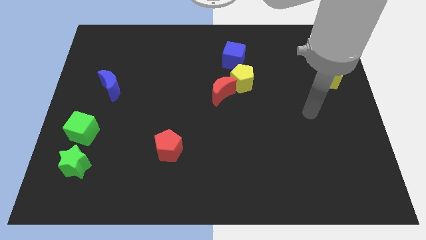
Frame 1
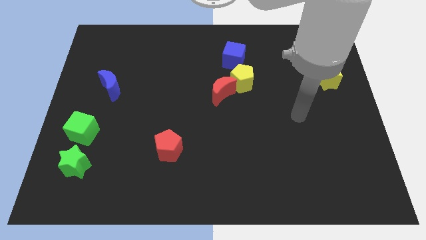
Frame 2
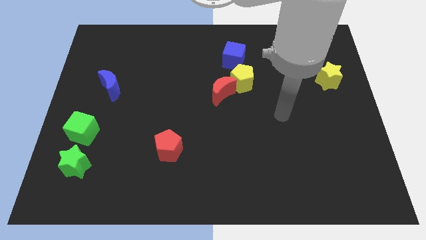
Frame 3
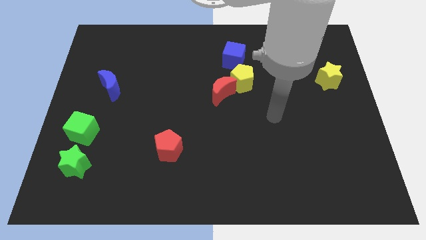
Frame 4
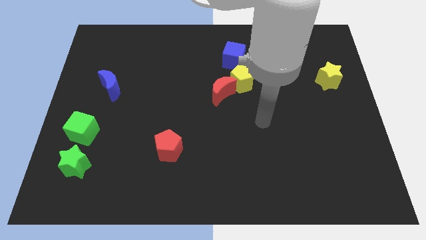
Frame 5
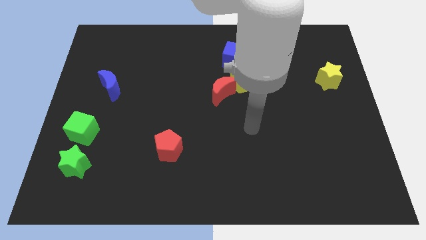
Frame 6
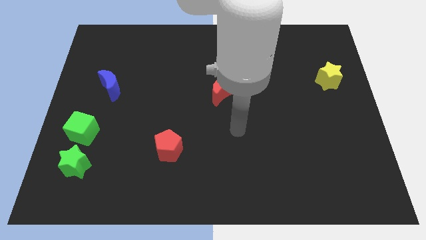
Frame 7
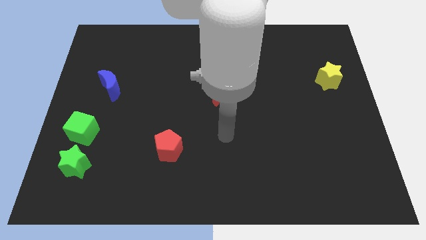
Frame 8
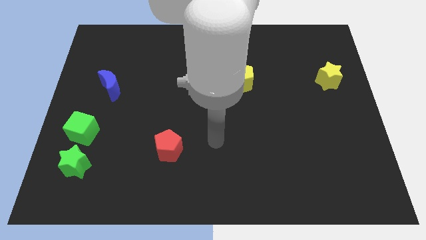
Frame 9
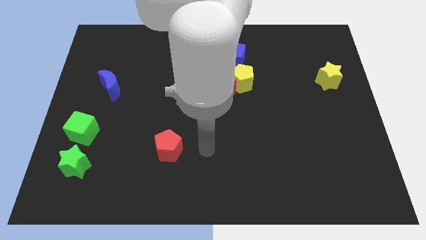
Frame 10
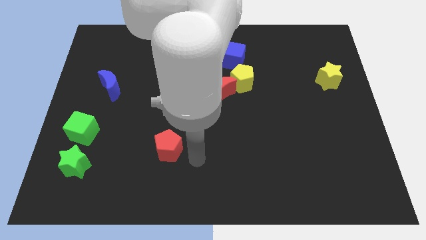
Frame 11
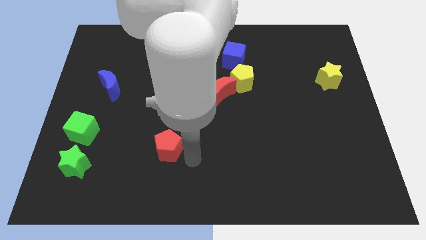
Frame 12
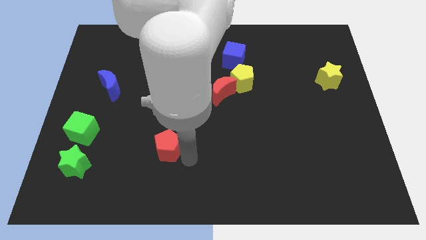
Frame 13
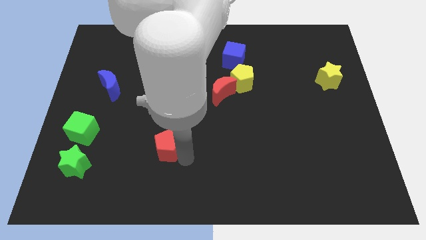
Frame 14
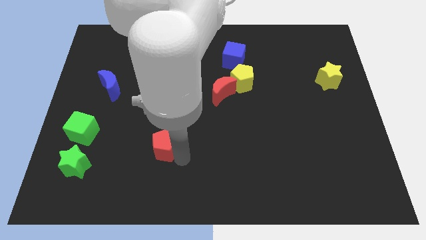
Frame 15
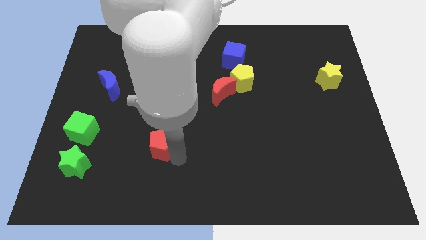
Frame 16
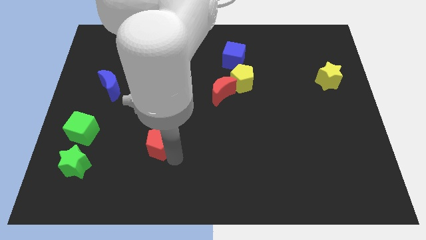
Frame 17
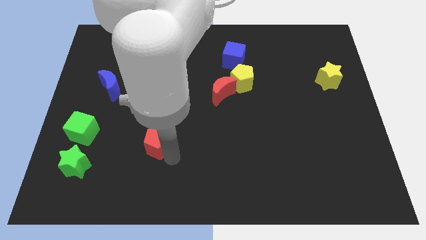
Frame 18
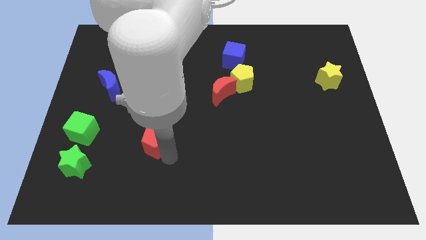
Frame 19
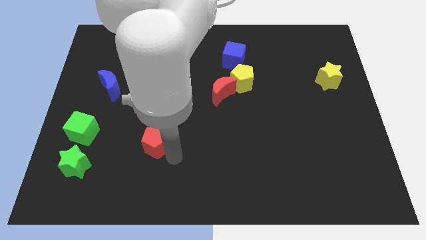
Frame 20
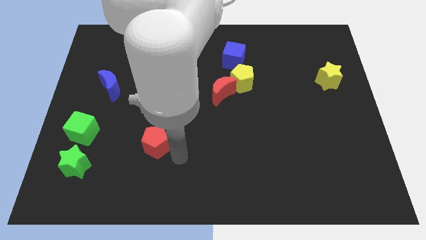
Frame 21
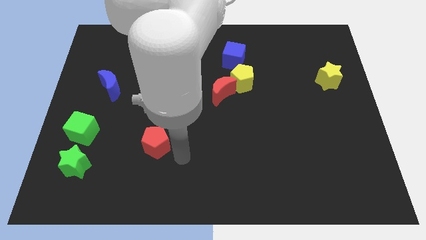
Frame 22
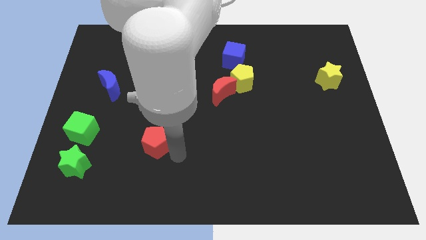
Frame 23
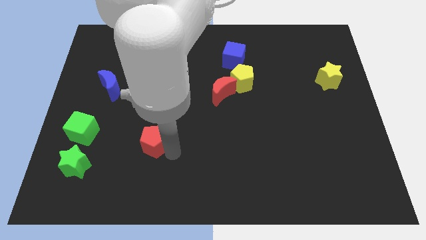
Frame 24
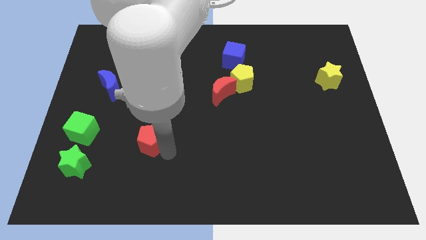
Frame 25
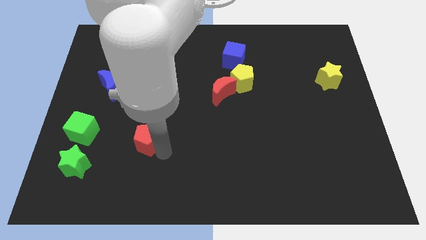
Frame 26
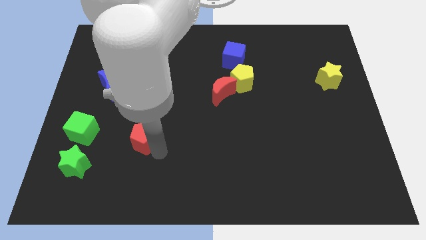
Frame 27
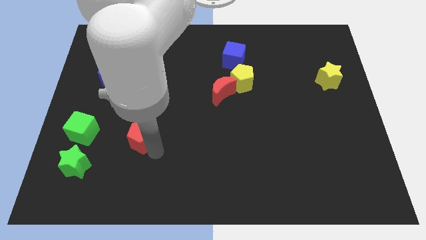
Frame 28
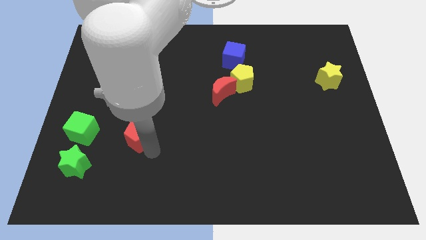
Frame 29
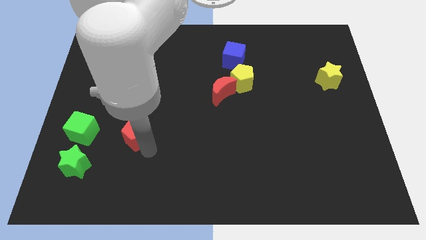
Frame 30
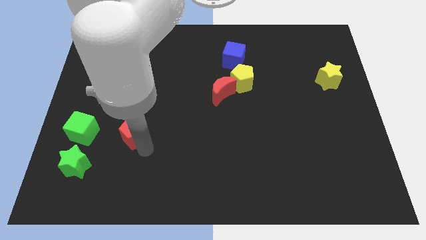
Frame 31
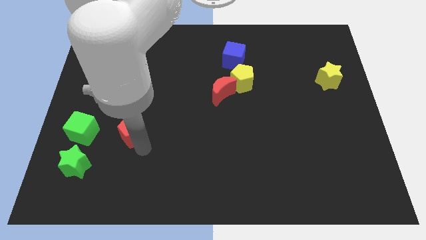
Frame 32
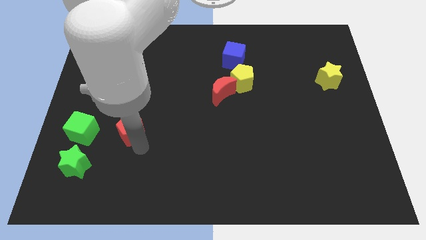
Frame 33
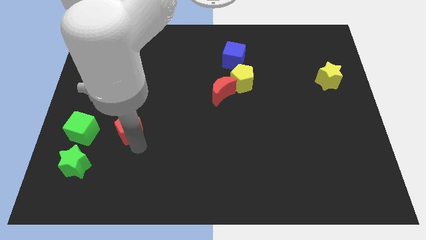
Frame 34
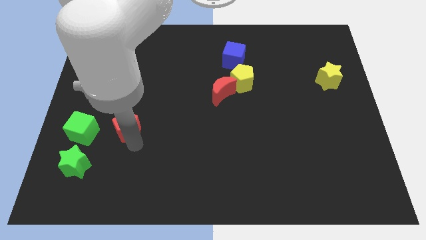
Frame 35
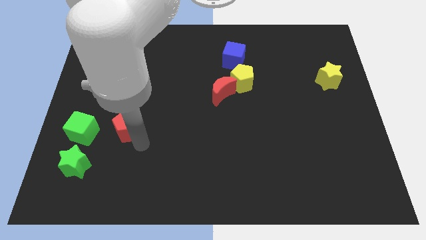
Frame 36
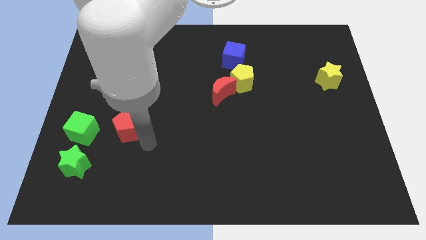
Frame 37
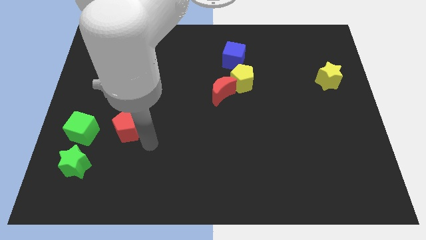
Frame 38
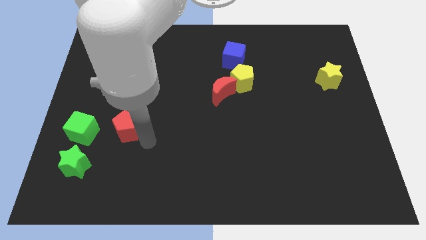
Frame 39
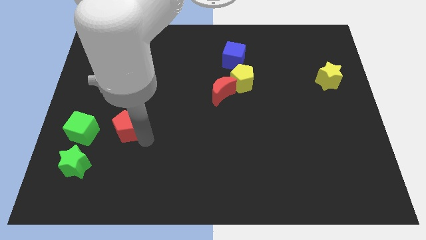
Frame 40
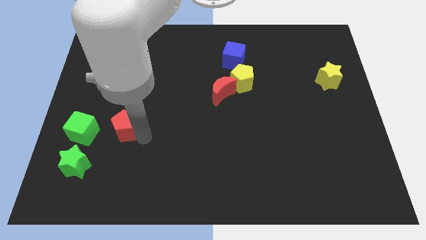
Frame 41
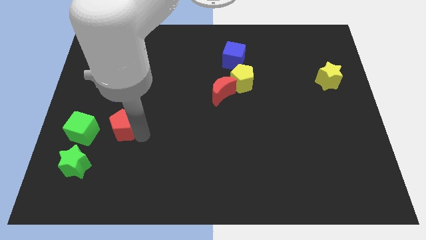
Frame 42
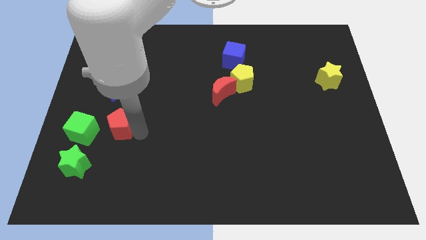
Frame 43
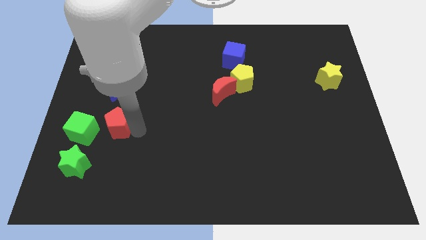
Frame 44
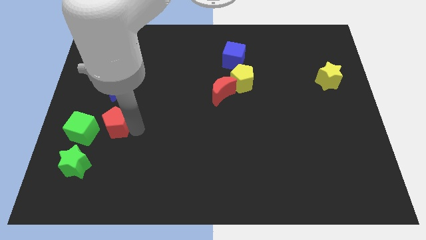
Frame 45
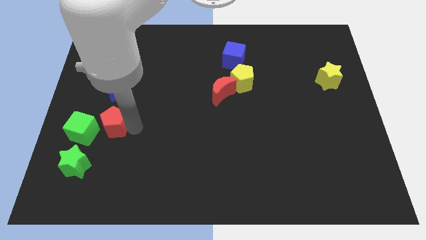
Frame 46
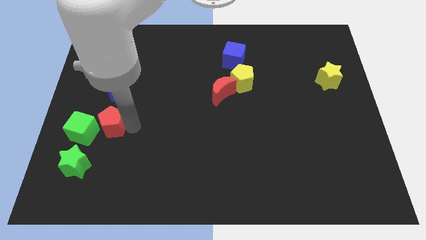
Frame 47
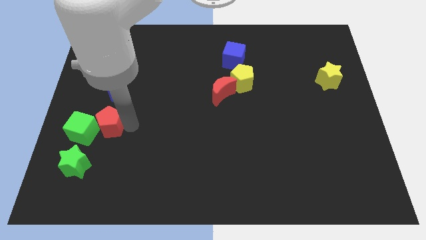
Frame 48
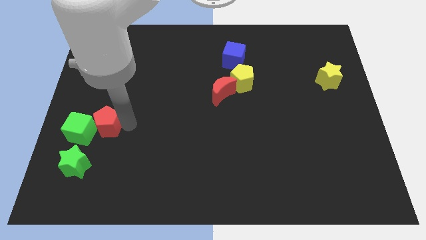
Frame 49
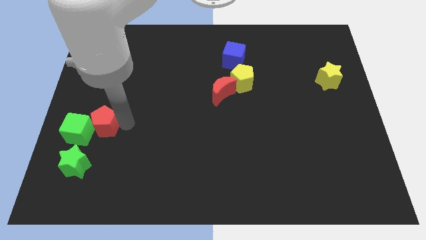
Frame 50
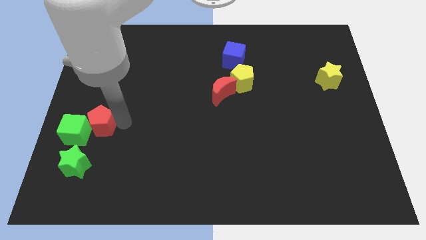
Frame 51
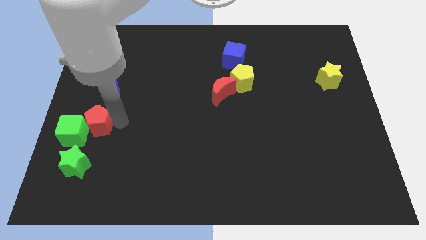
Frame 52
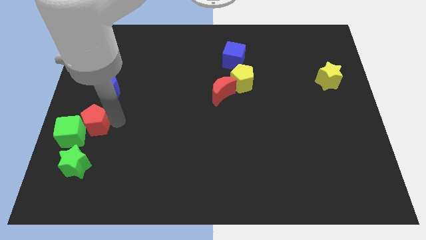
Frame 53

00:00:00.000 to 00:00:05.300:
put the red pentagon to the left side

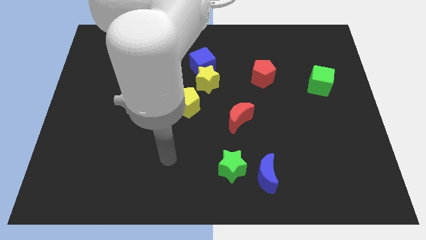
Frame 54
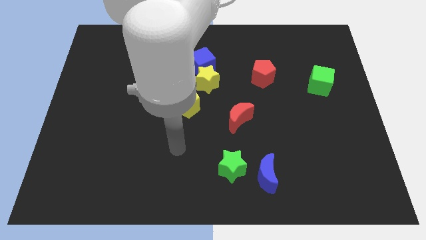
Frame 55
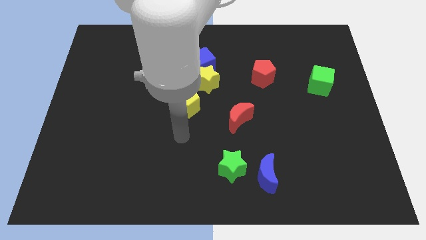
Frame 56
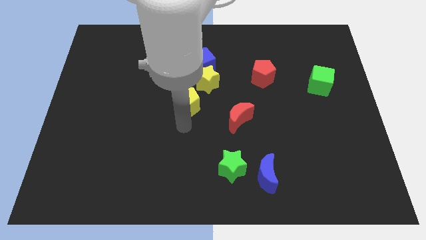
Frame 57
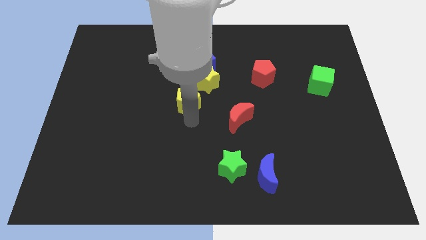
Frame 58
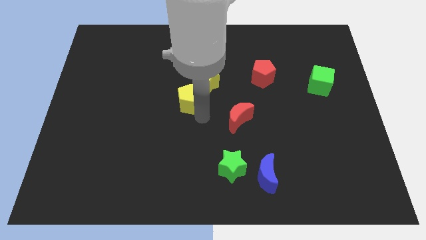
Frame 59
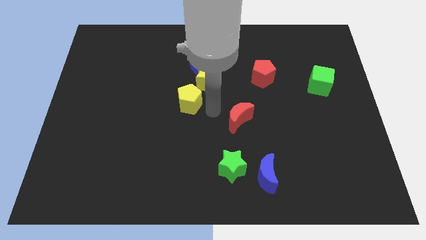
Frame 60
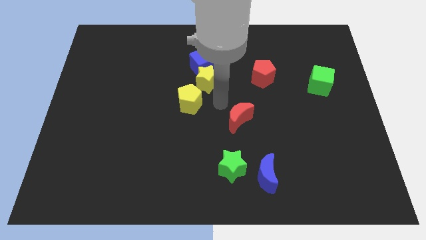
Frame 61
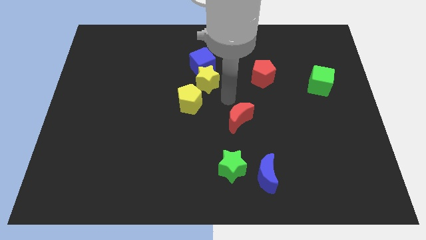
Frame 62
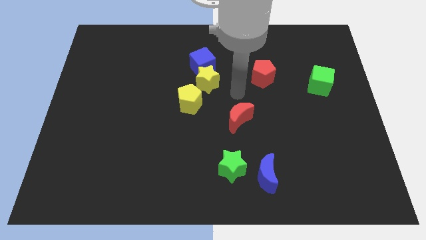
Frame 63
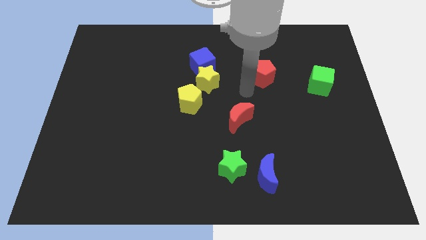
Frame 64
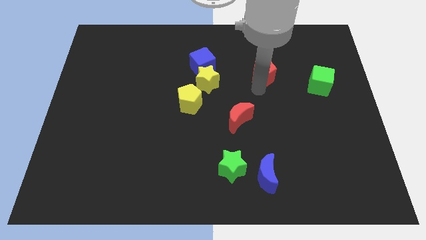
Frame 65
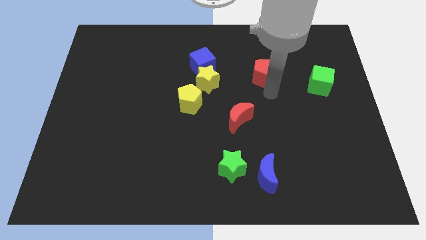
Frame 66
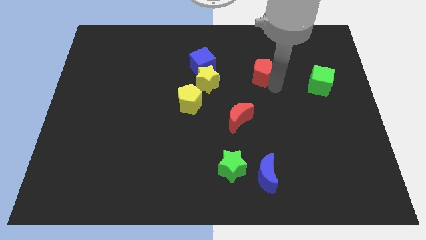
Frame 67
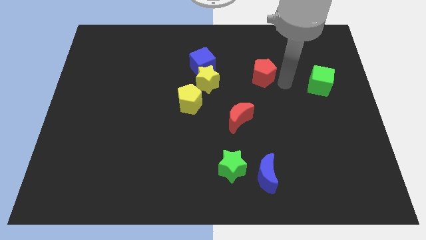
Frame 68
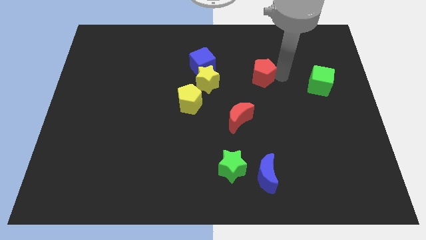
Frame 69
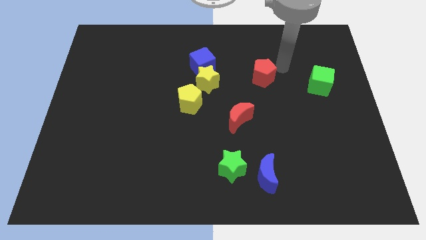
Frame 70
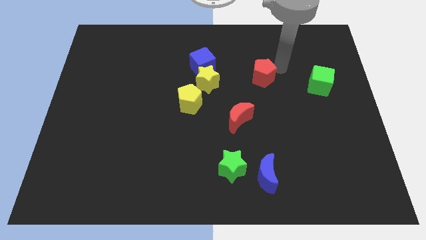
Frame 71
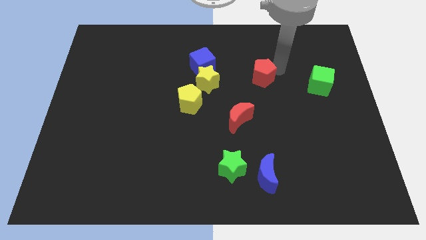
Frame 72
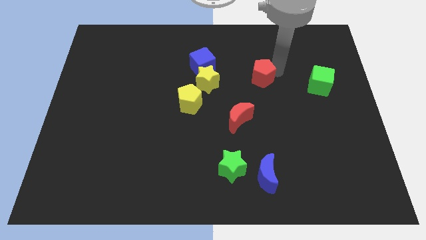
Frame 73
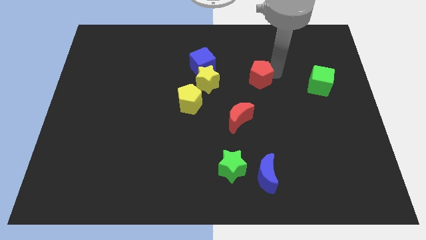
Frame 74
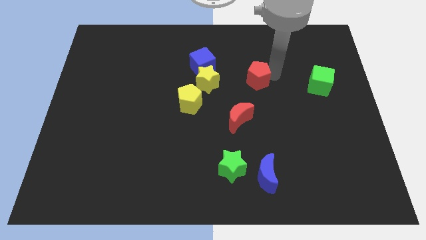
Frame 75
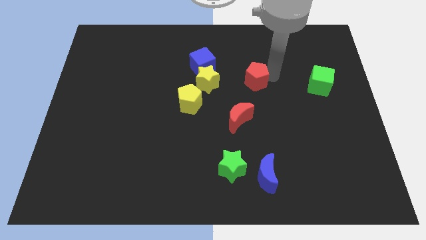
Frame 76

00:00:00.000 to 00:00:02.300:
push the red pentagon to the center
